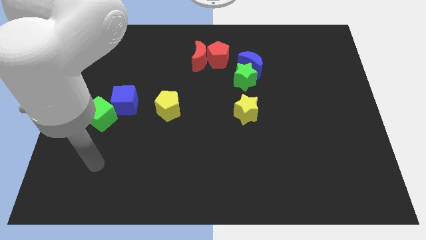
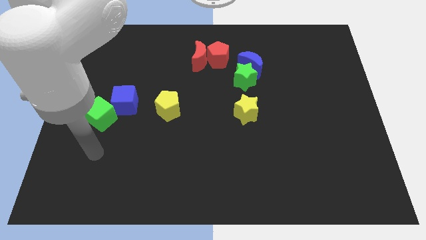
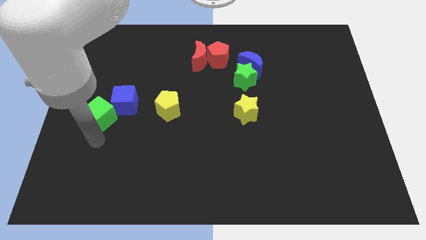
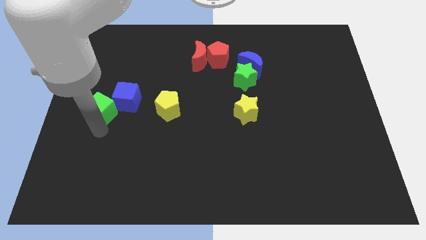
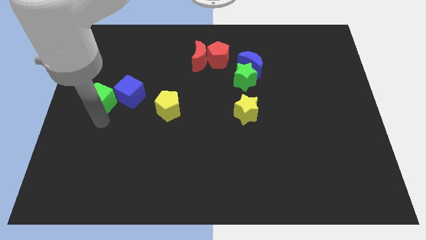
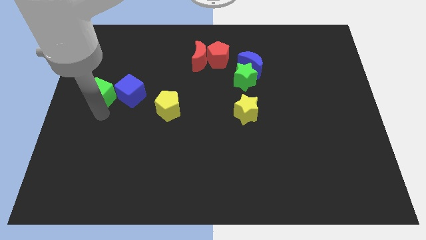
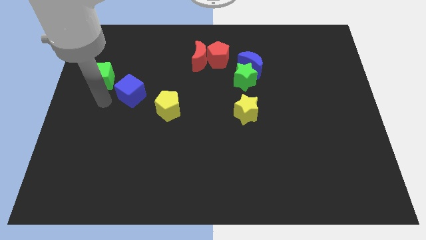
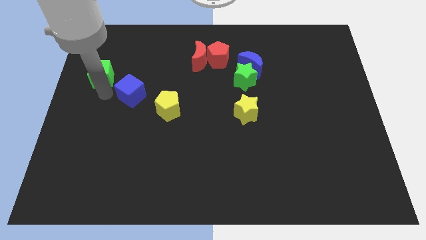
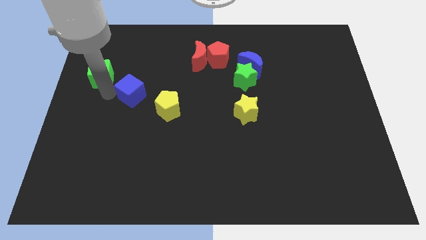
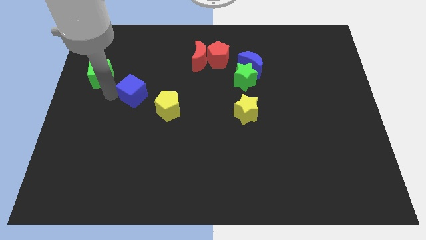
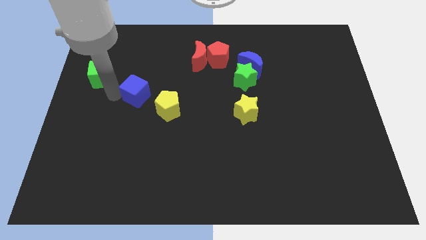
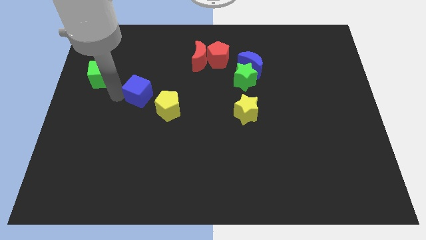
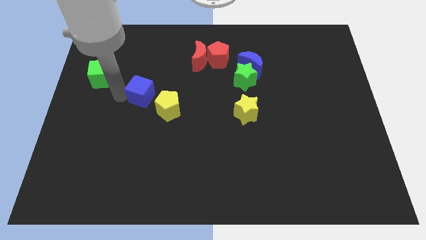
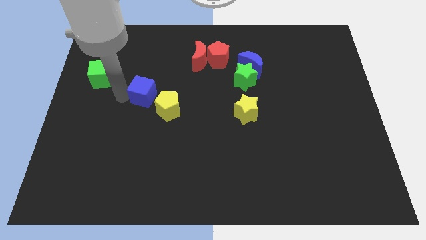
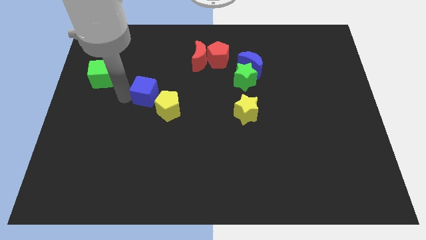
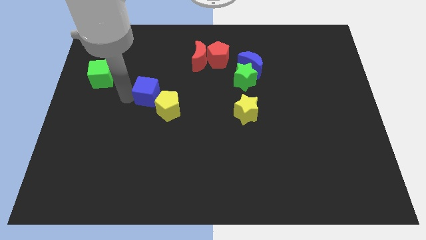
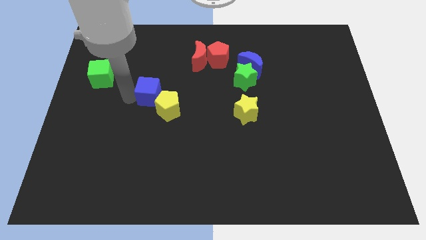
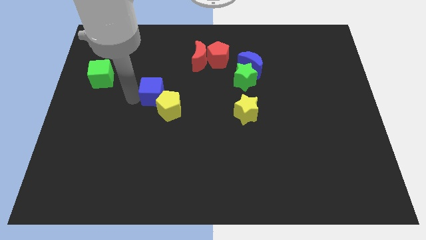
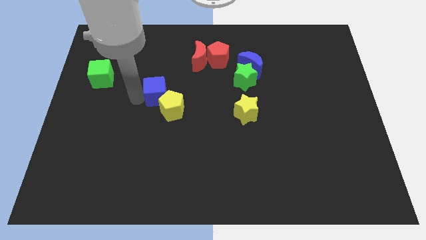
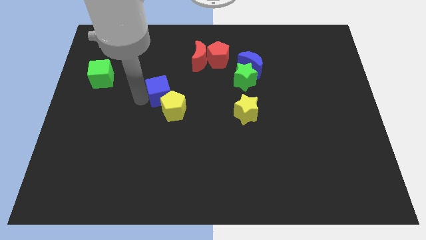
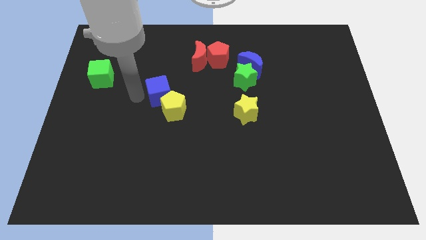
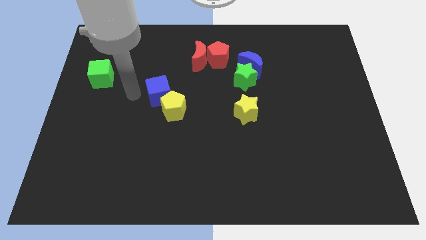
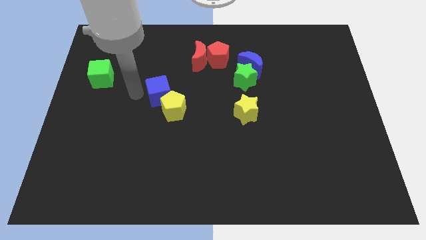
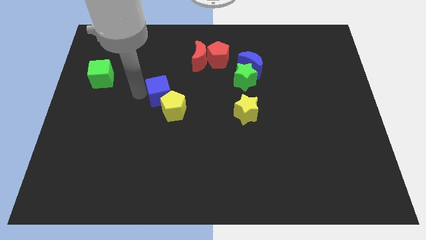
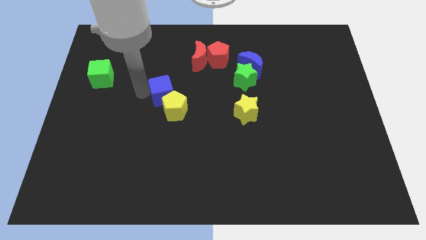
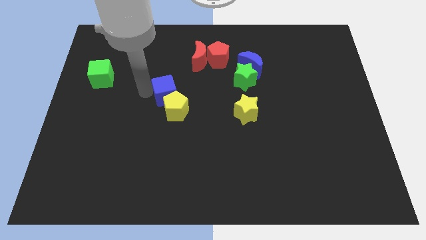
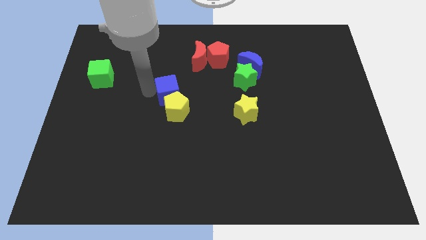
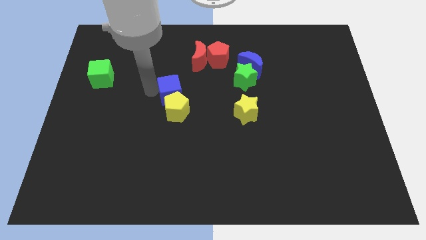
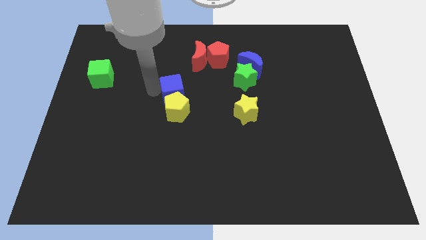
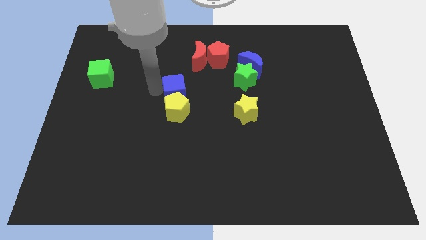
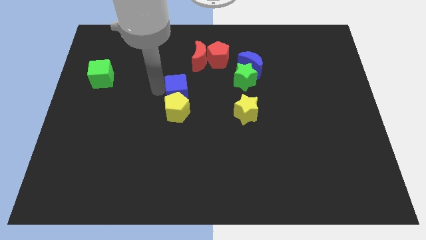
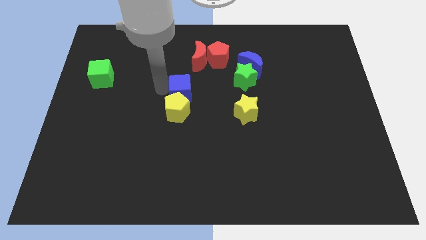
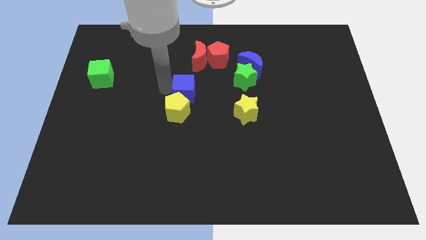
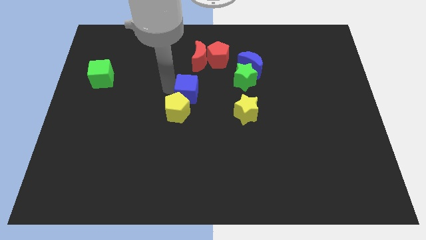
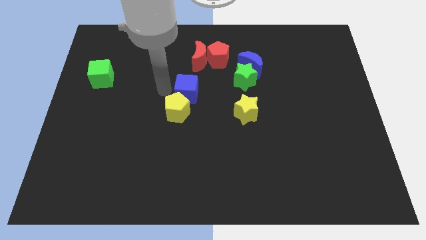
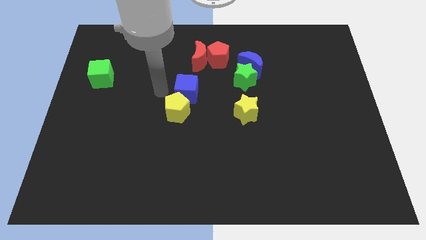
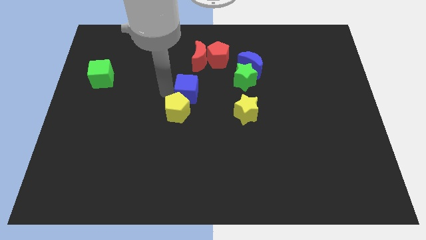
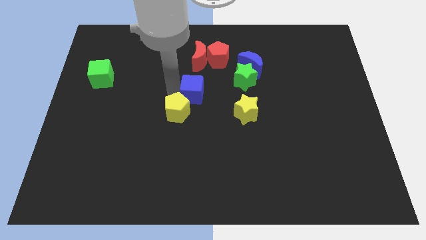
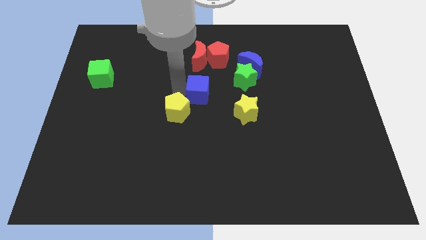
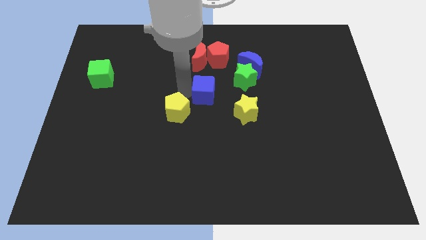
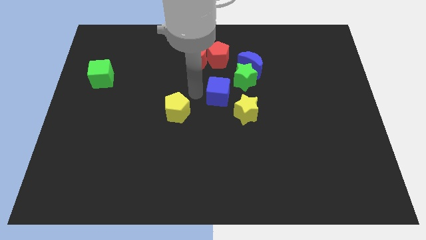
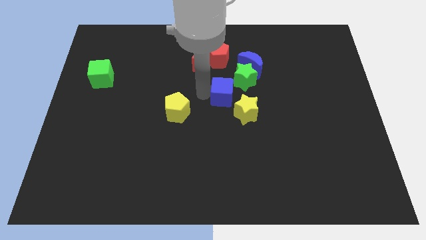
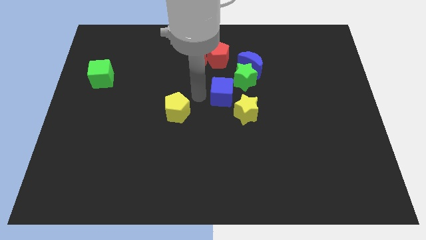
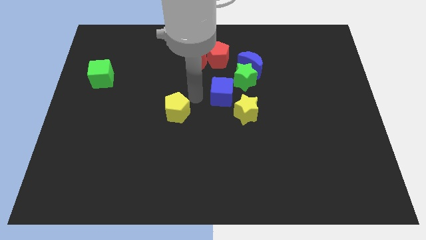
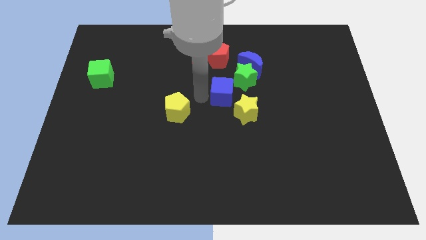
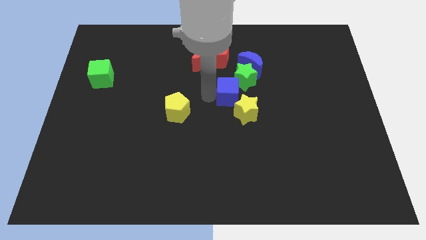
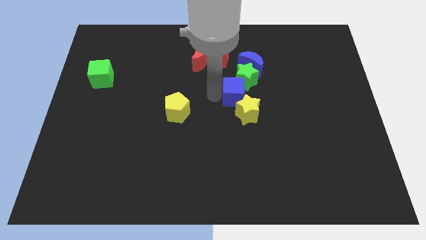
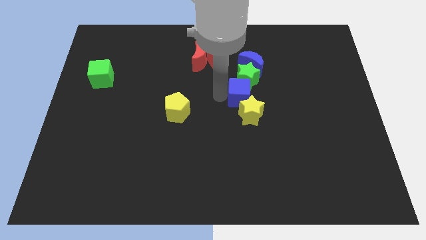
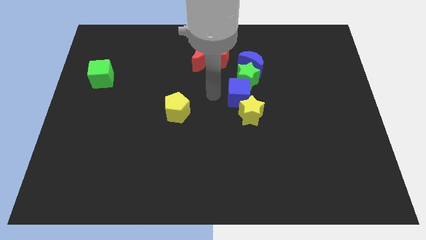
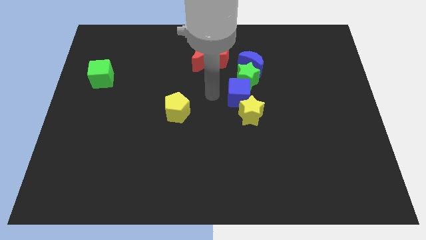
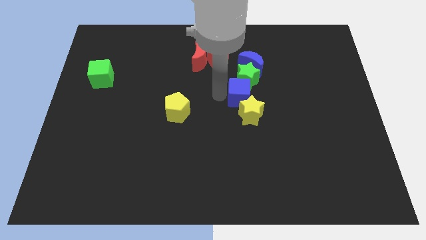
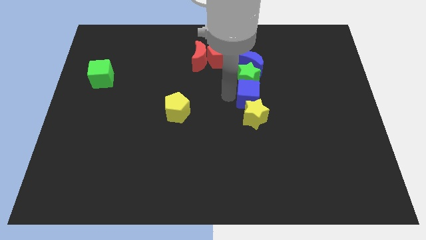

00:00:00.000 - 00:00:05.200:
slide the blue cube to the top right of the yellow star

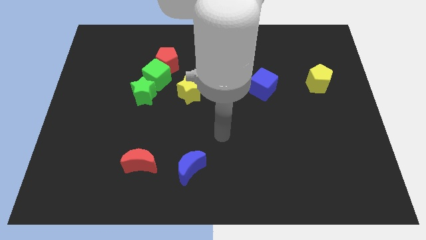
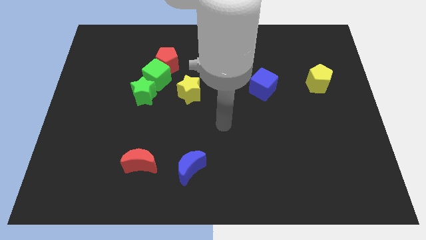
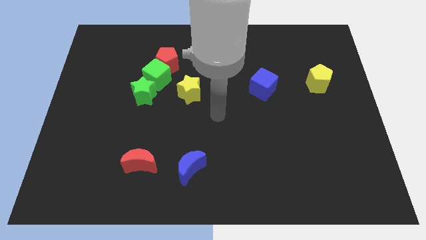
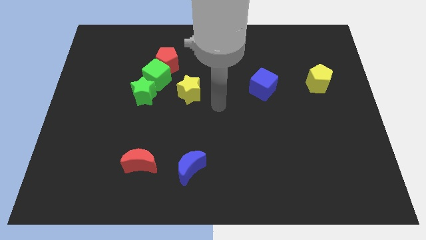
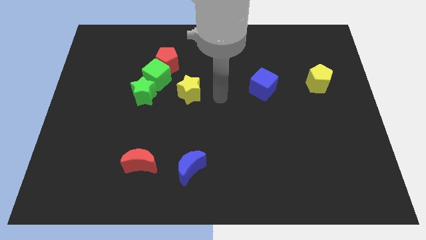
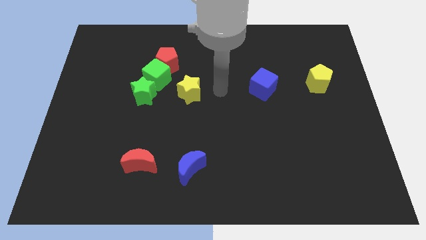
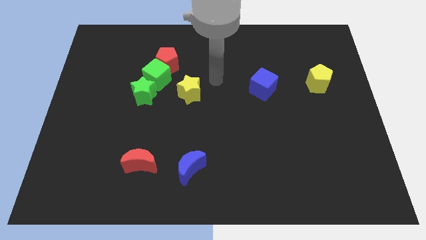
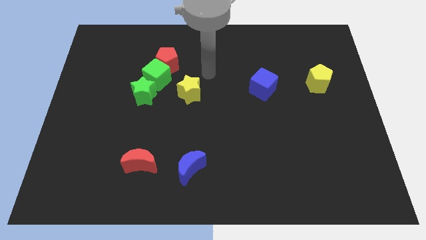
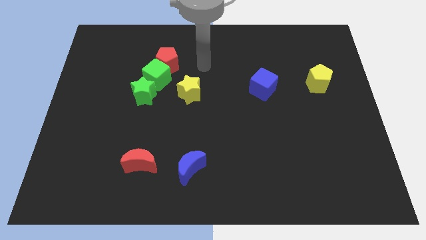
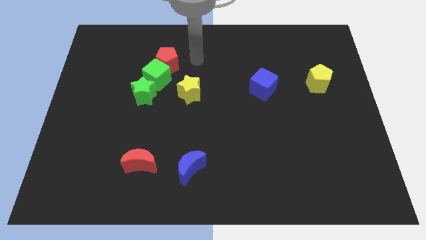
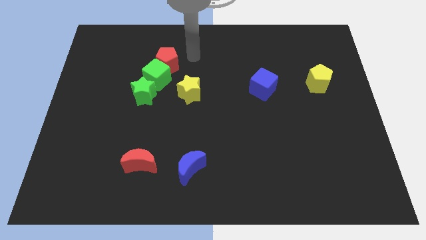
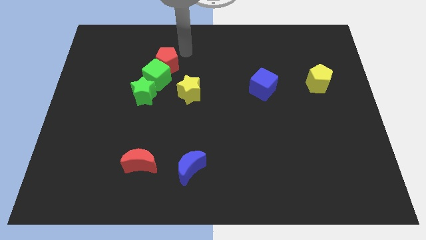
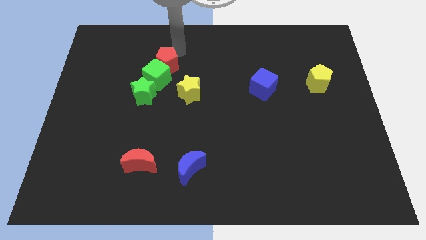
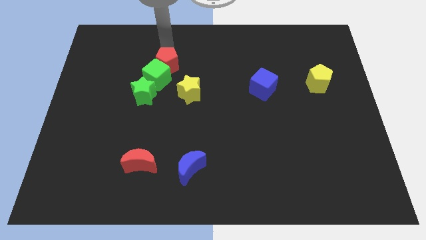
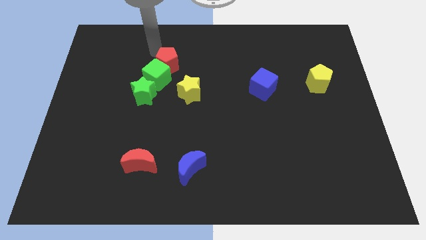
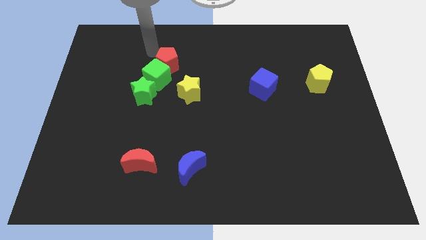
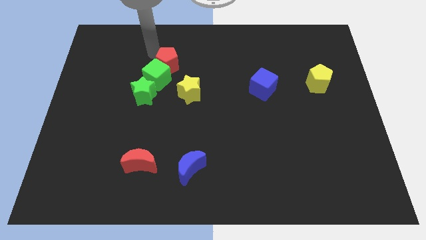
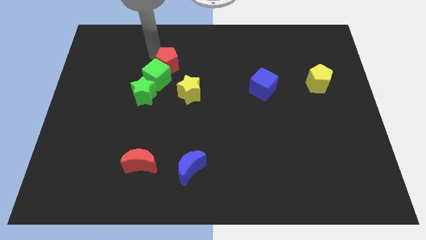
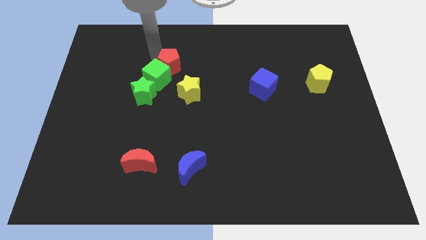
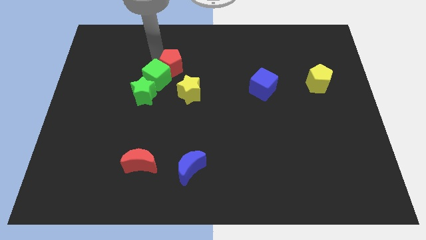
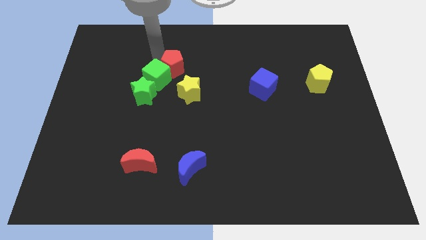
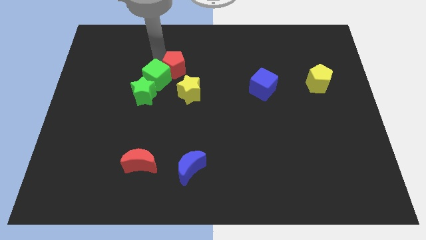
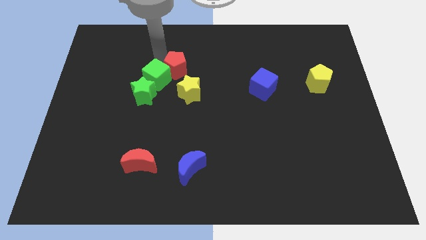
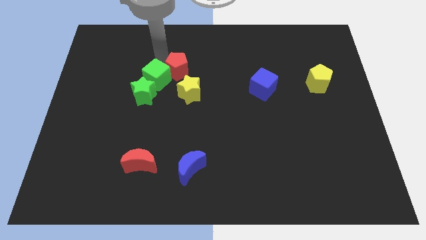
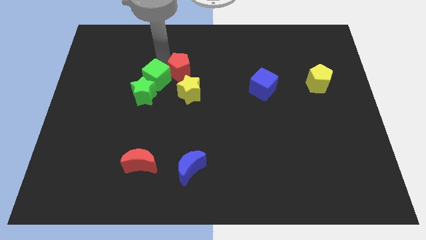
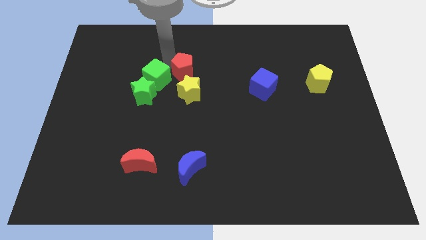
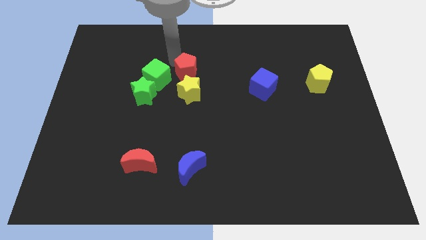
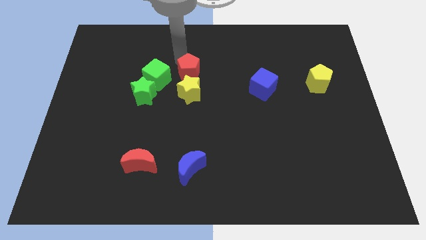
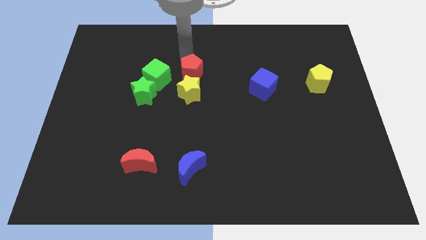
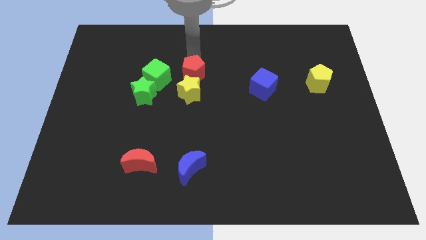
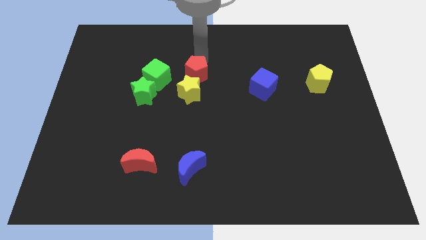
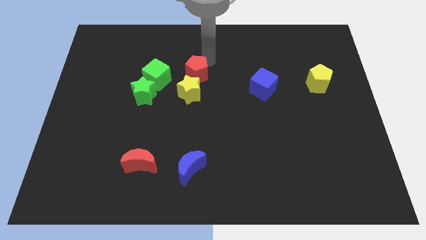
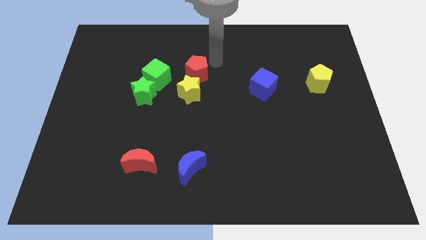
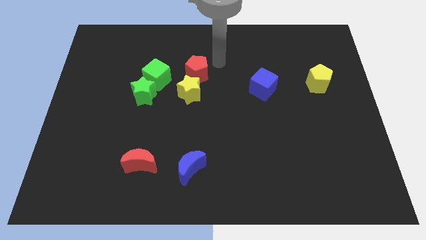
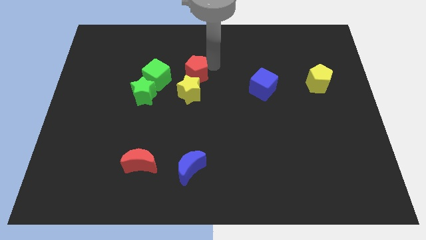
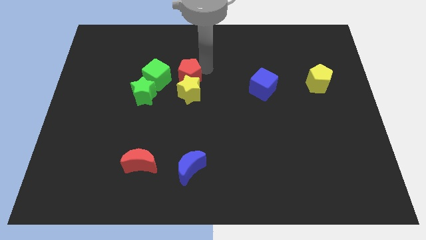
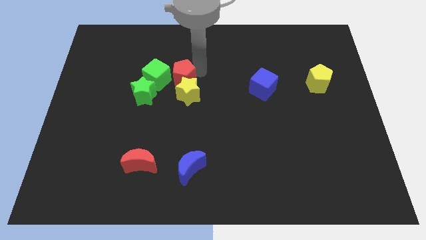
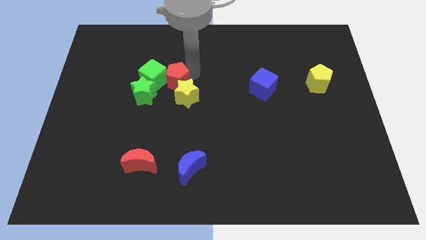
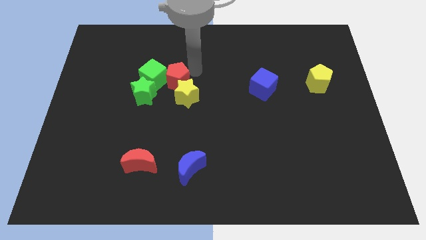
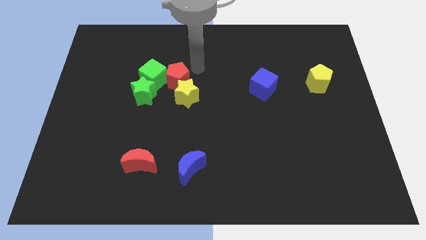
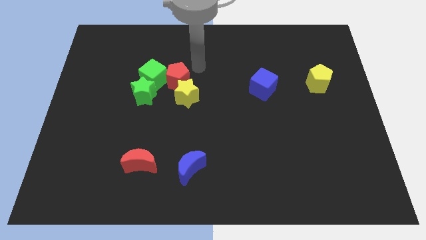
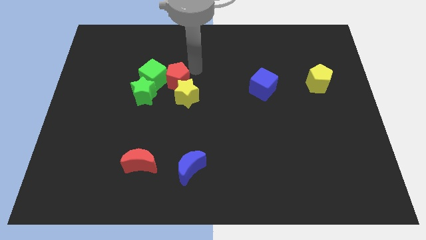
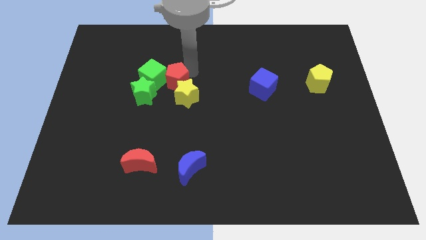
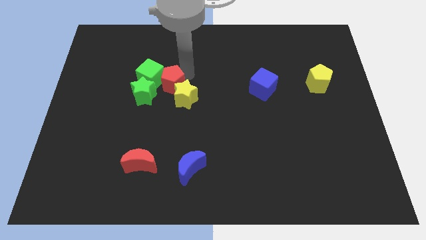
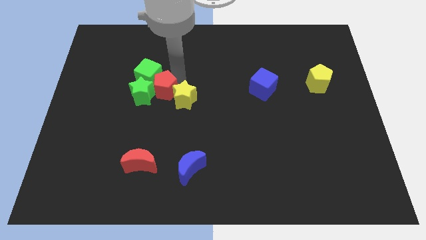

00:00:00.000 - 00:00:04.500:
slide the red pentagon below the green cube
